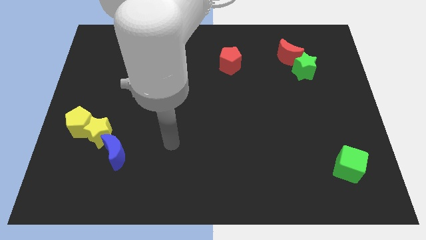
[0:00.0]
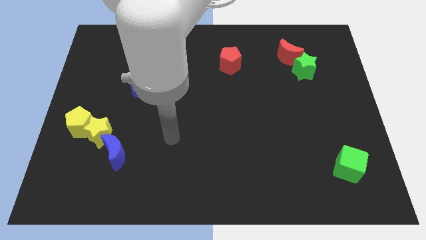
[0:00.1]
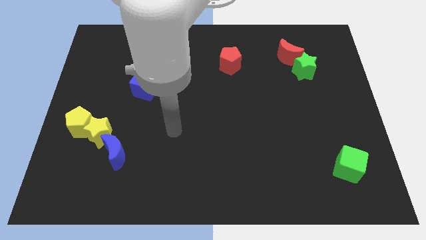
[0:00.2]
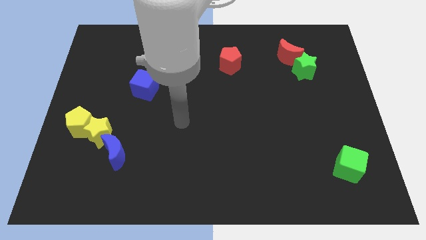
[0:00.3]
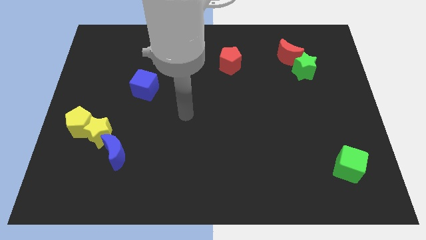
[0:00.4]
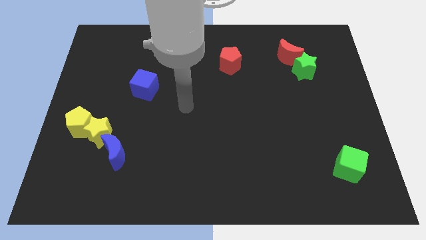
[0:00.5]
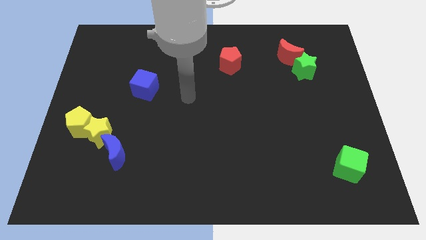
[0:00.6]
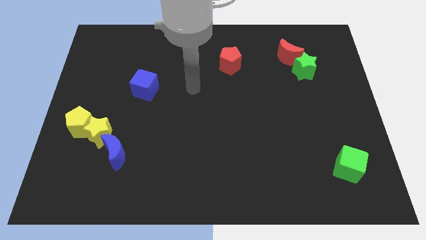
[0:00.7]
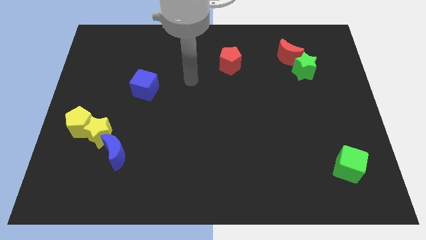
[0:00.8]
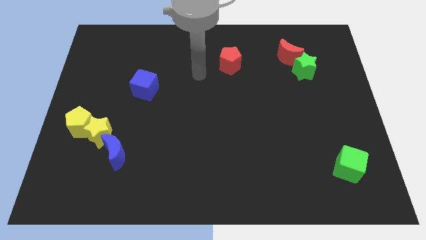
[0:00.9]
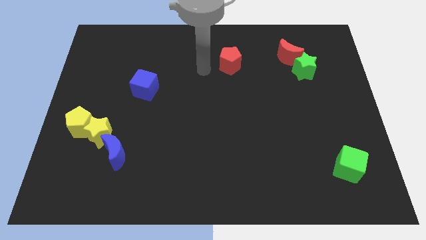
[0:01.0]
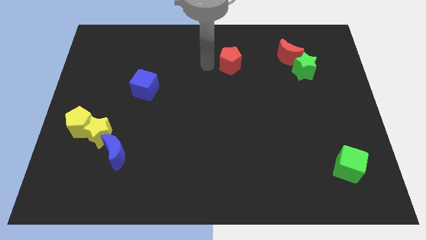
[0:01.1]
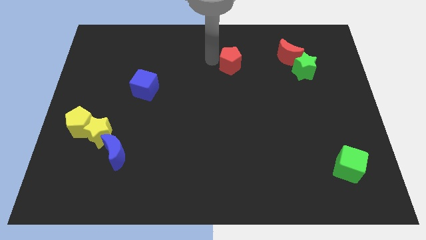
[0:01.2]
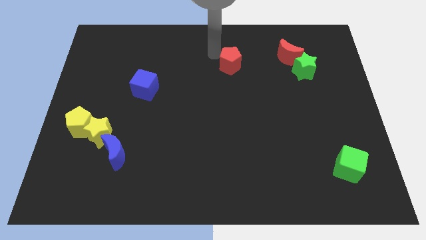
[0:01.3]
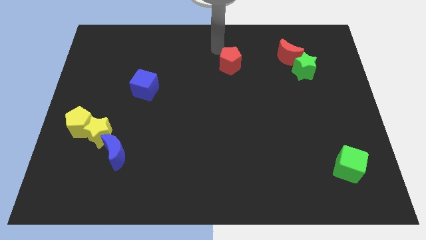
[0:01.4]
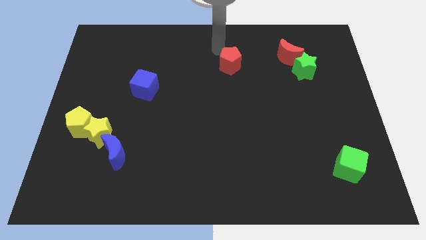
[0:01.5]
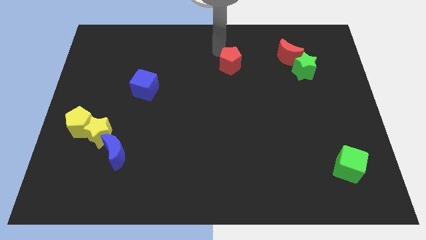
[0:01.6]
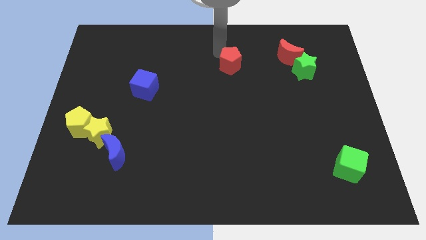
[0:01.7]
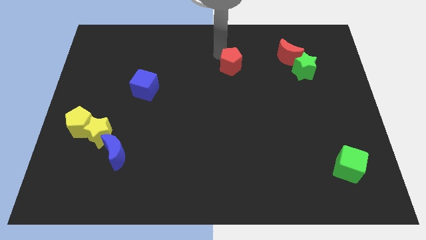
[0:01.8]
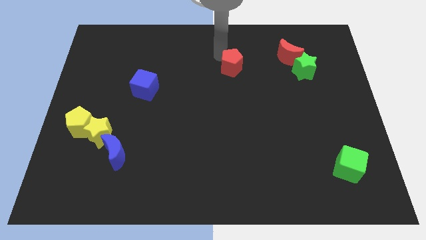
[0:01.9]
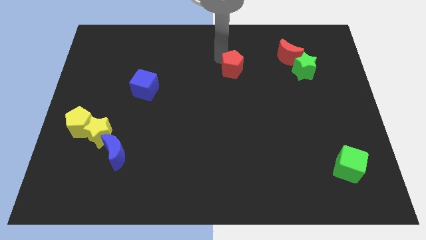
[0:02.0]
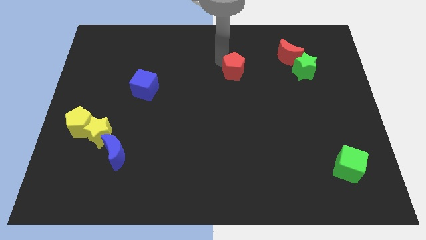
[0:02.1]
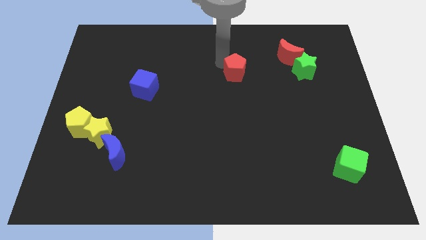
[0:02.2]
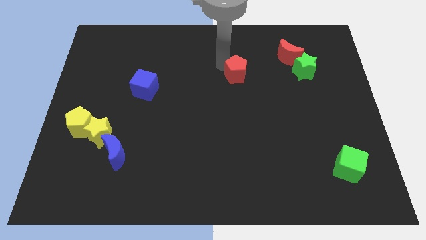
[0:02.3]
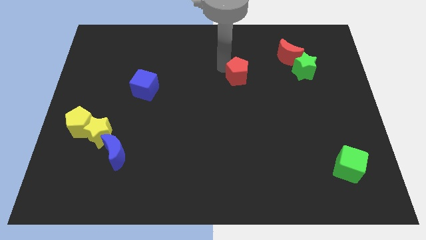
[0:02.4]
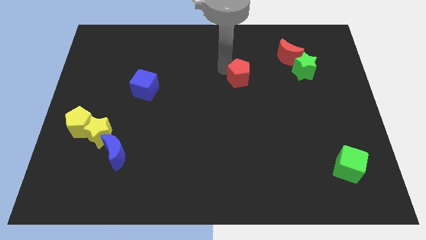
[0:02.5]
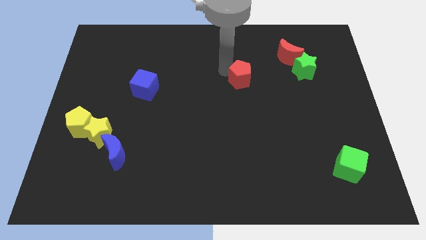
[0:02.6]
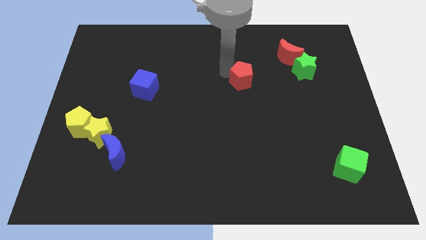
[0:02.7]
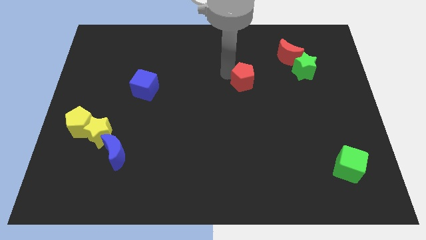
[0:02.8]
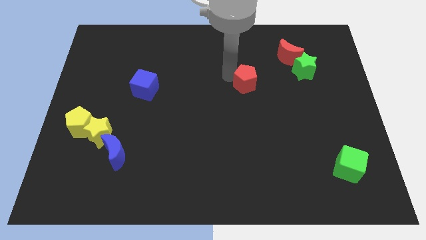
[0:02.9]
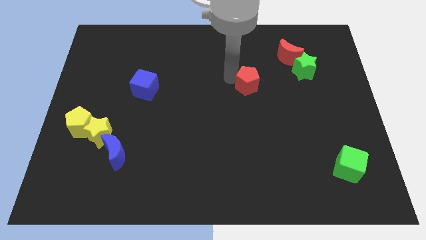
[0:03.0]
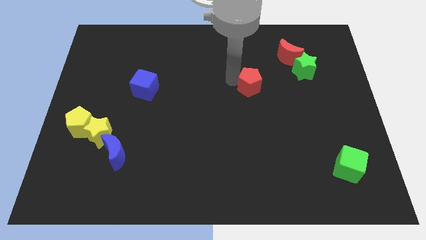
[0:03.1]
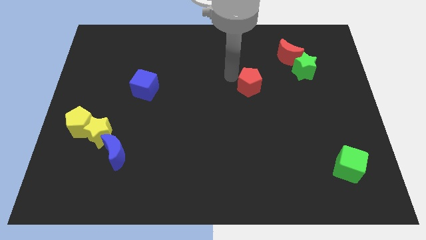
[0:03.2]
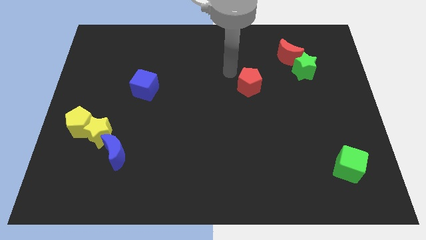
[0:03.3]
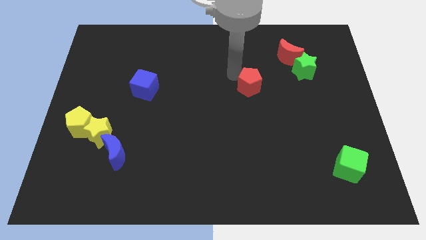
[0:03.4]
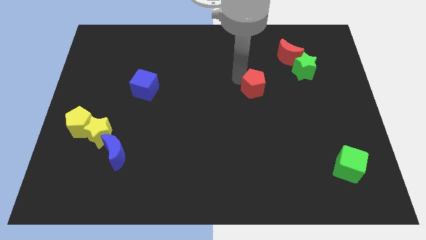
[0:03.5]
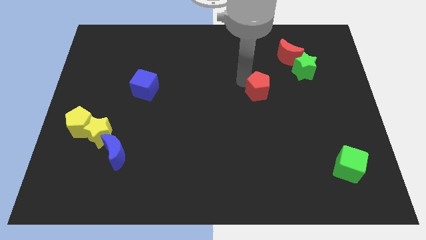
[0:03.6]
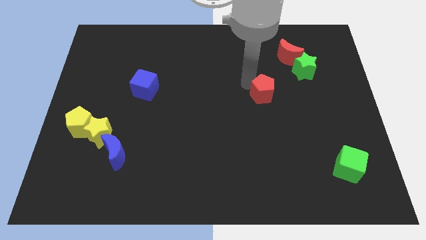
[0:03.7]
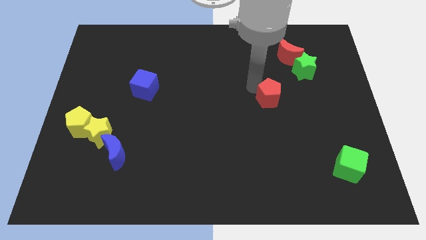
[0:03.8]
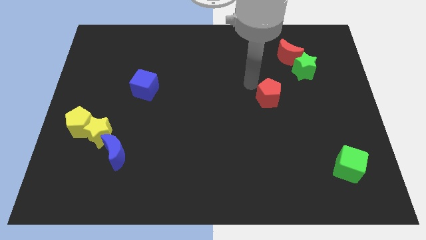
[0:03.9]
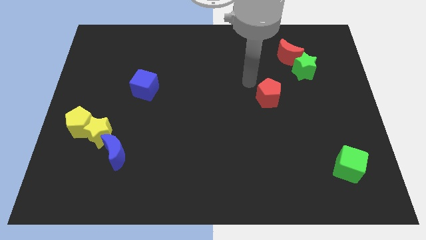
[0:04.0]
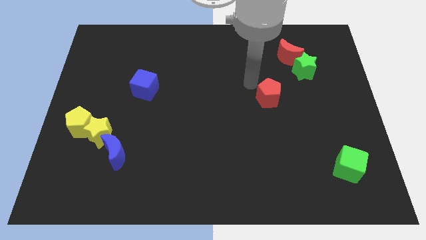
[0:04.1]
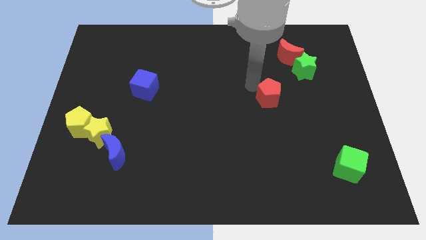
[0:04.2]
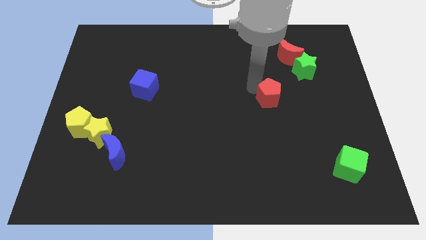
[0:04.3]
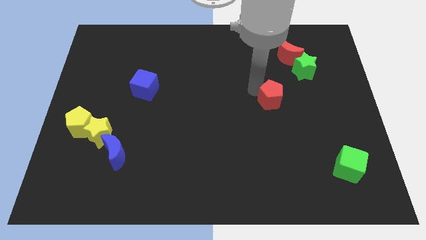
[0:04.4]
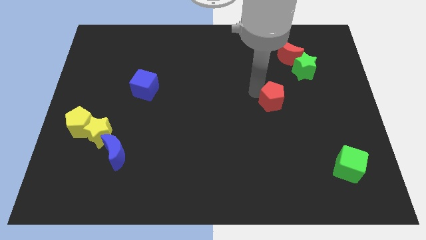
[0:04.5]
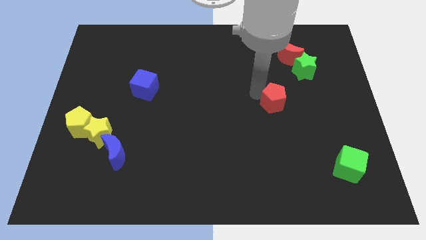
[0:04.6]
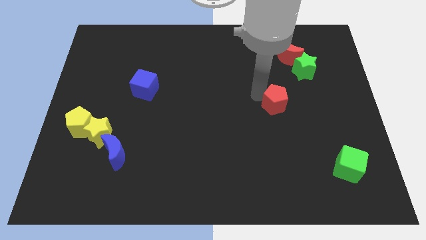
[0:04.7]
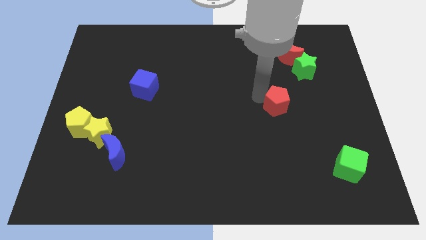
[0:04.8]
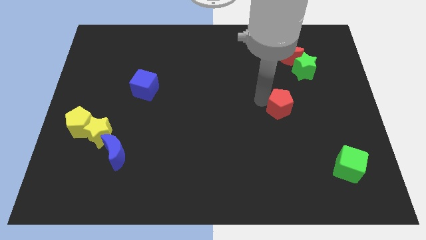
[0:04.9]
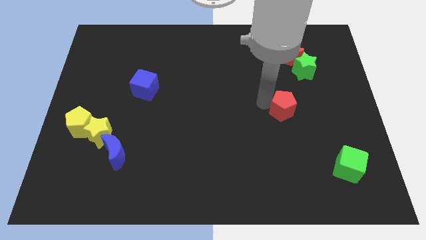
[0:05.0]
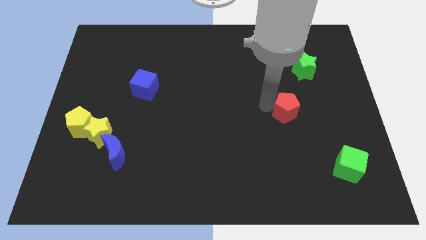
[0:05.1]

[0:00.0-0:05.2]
slide the red pentagon down and to the right

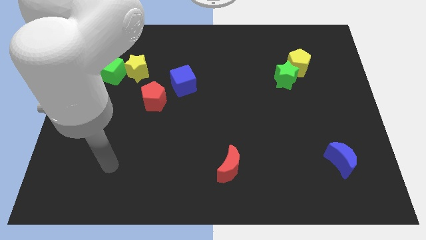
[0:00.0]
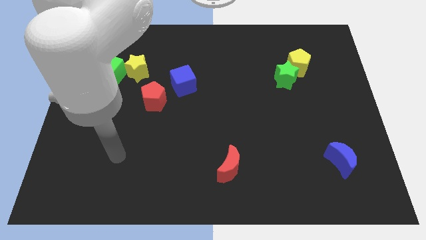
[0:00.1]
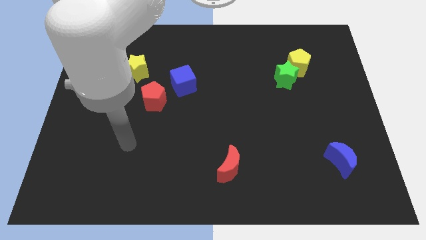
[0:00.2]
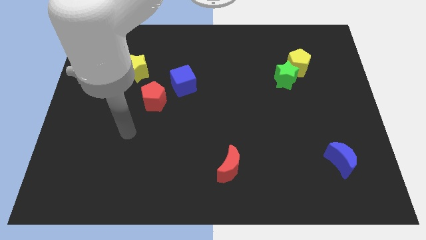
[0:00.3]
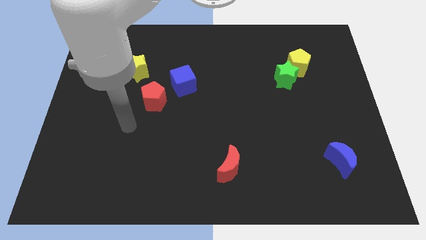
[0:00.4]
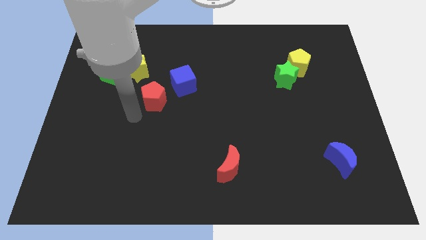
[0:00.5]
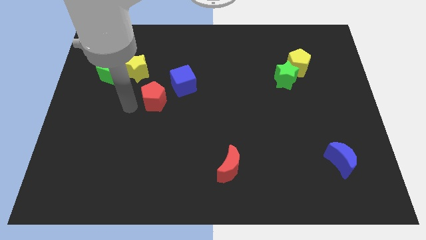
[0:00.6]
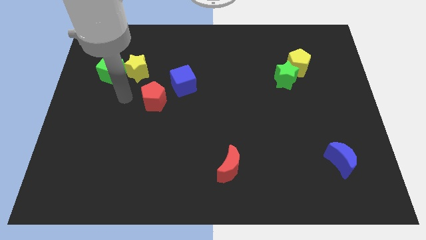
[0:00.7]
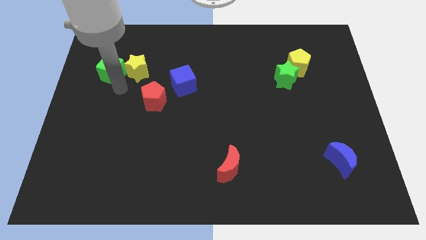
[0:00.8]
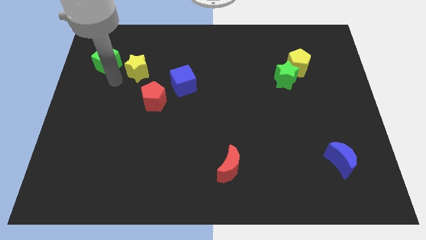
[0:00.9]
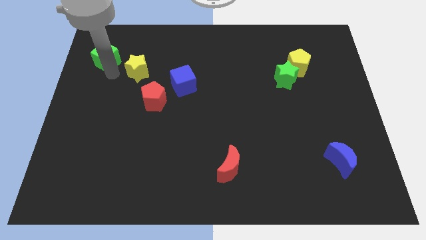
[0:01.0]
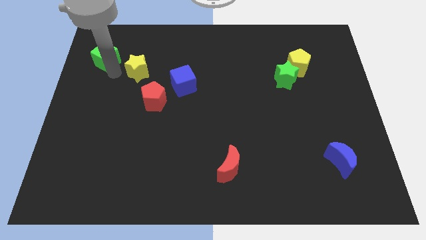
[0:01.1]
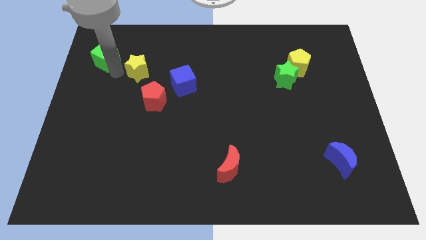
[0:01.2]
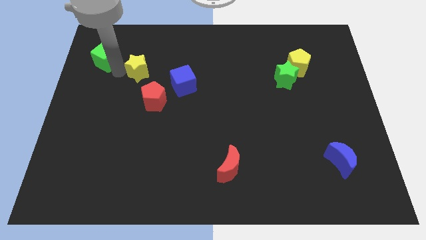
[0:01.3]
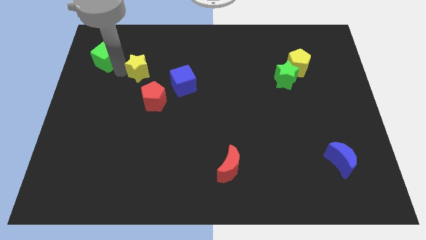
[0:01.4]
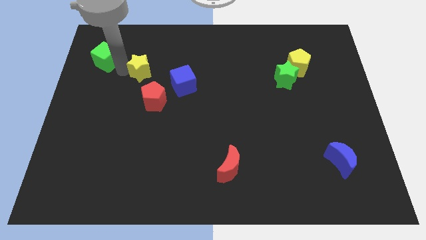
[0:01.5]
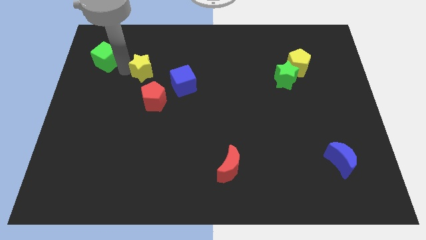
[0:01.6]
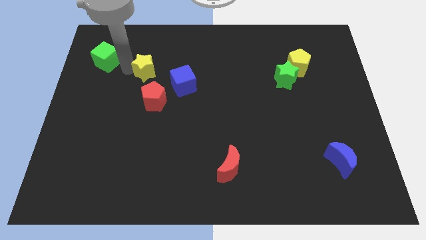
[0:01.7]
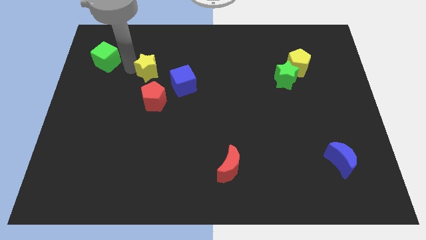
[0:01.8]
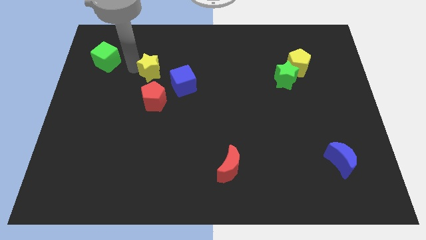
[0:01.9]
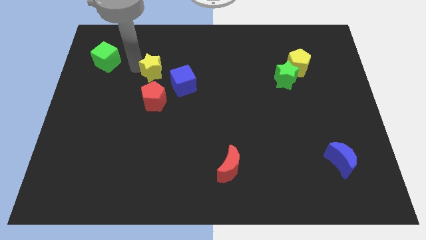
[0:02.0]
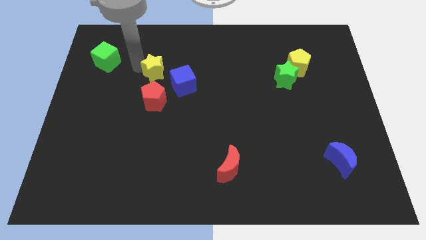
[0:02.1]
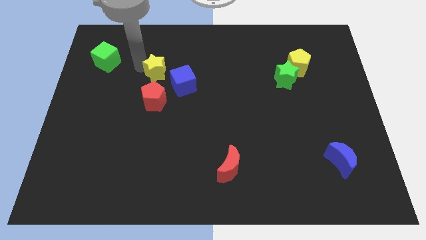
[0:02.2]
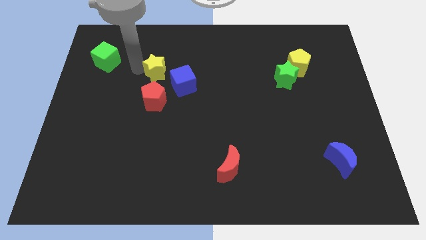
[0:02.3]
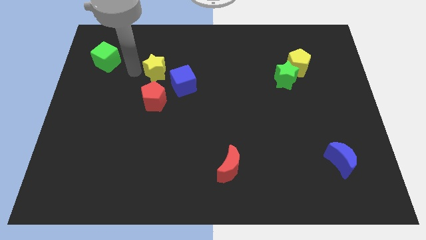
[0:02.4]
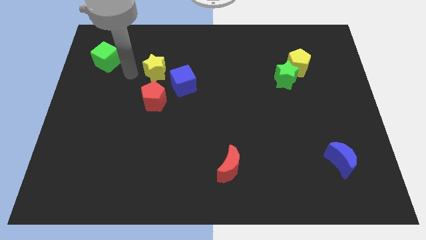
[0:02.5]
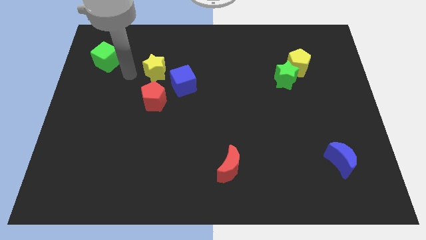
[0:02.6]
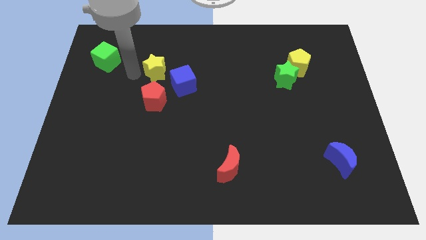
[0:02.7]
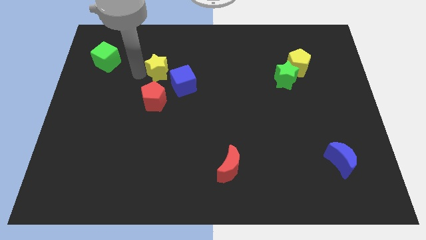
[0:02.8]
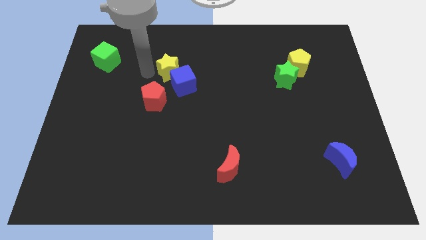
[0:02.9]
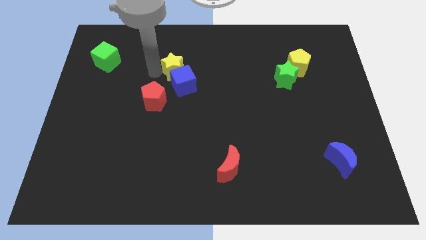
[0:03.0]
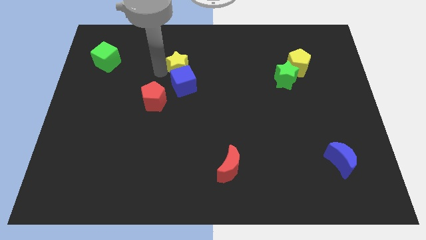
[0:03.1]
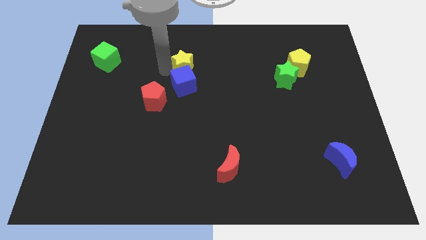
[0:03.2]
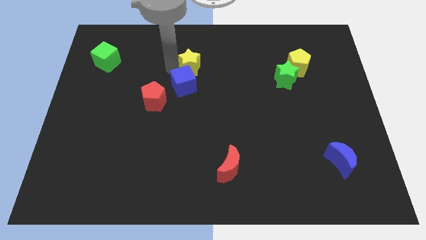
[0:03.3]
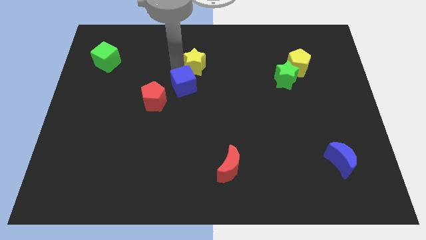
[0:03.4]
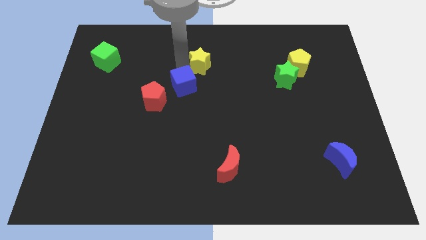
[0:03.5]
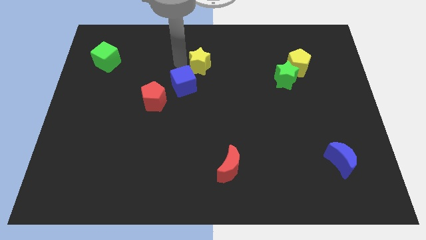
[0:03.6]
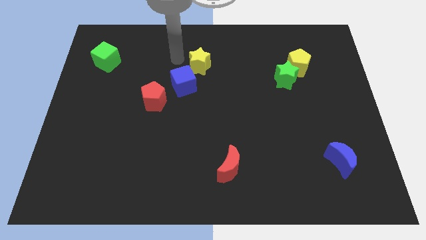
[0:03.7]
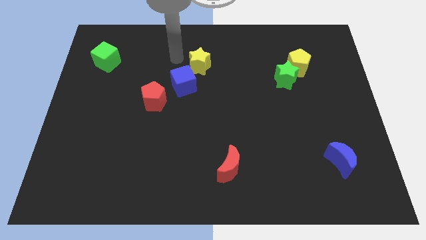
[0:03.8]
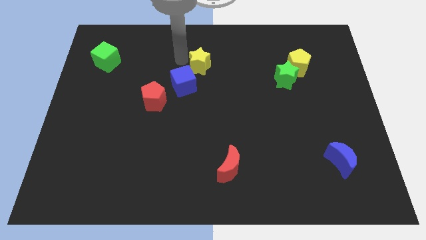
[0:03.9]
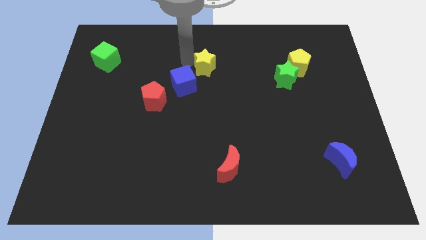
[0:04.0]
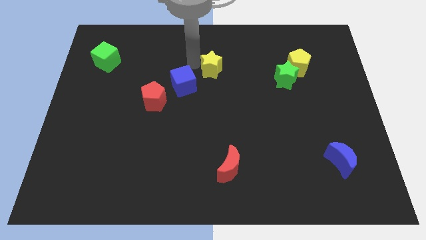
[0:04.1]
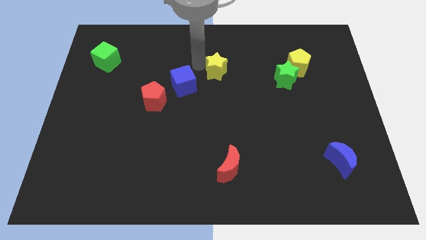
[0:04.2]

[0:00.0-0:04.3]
push the yellow star right
